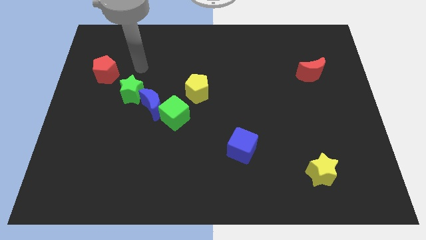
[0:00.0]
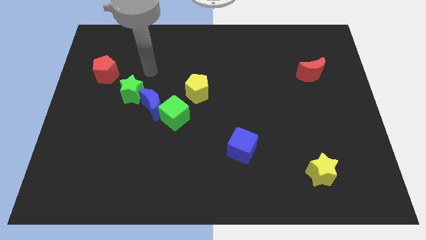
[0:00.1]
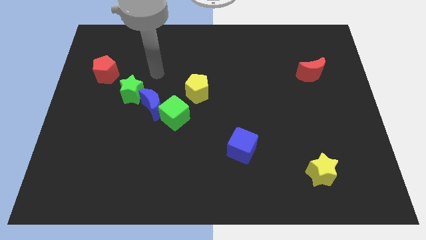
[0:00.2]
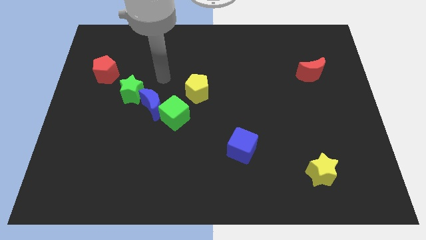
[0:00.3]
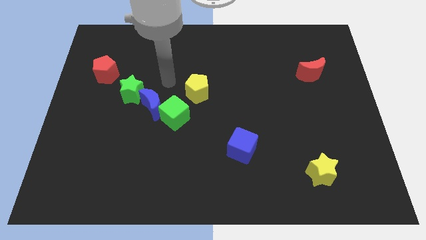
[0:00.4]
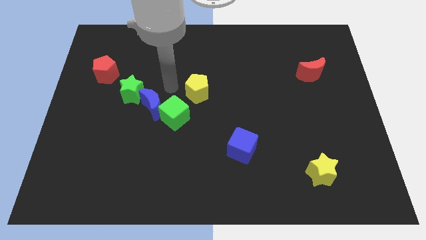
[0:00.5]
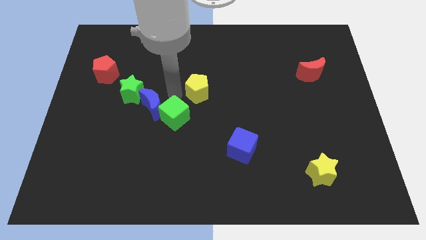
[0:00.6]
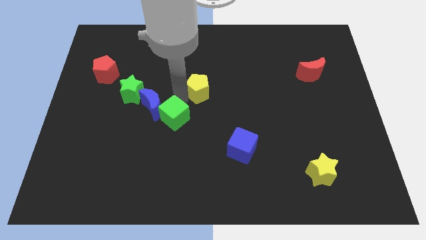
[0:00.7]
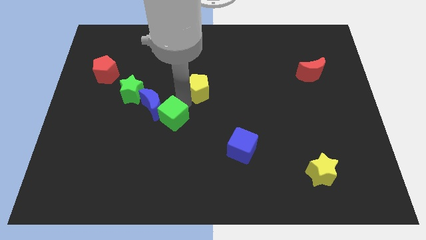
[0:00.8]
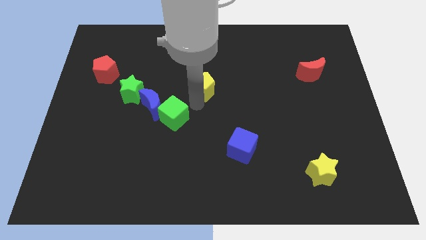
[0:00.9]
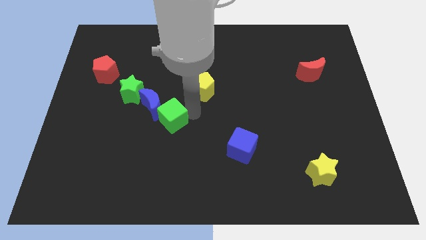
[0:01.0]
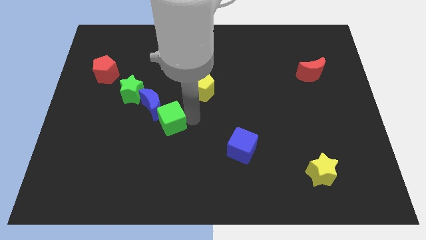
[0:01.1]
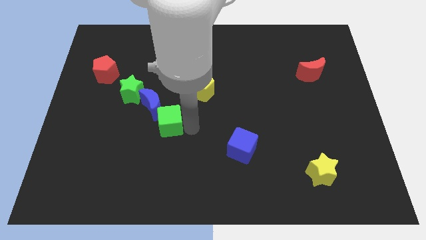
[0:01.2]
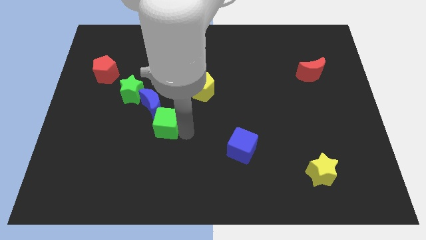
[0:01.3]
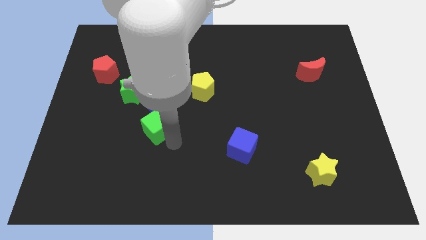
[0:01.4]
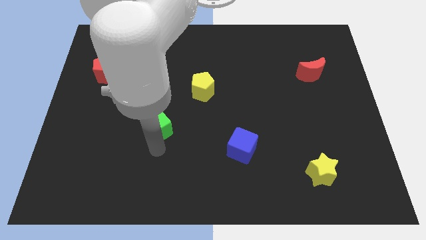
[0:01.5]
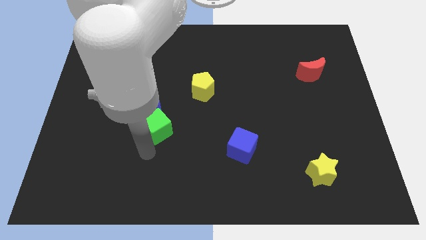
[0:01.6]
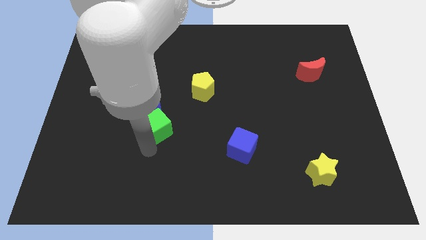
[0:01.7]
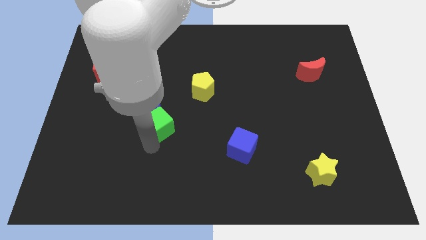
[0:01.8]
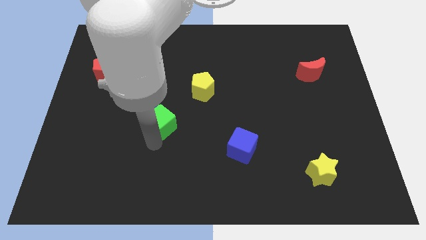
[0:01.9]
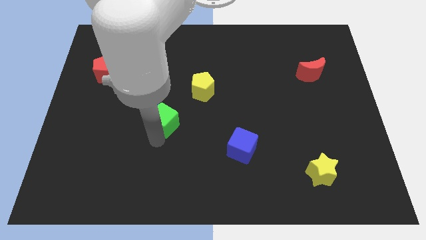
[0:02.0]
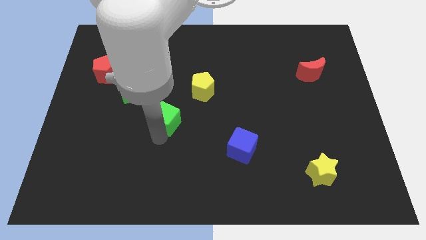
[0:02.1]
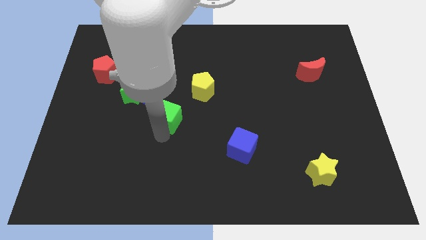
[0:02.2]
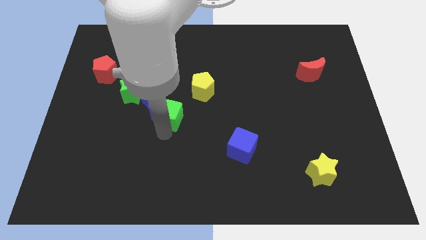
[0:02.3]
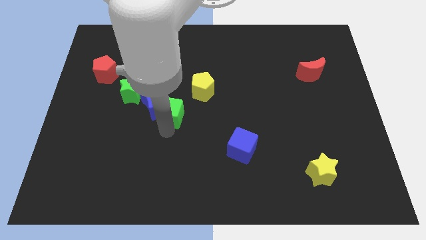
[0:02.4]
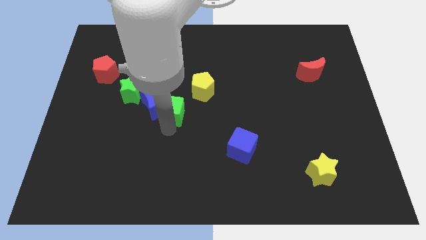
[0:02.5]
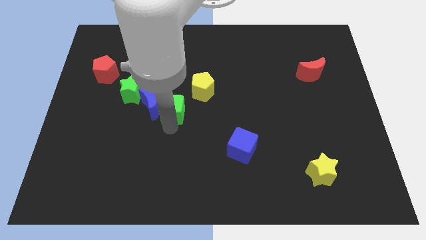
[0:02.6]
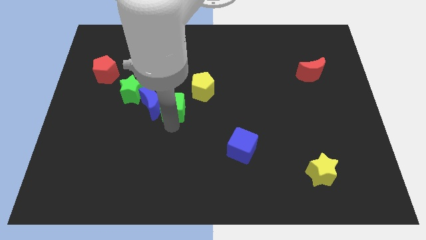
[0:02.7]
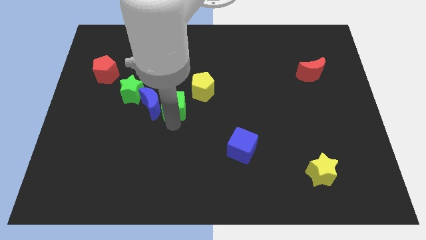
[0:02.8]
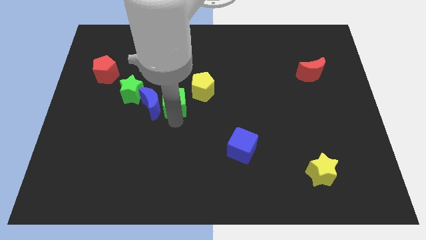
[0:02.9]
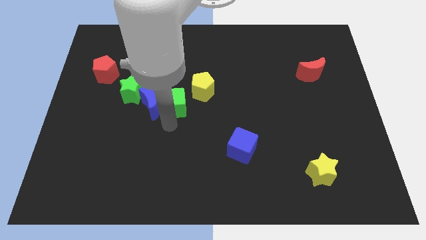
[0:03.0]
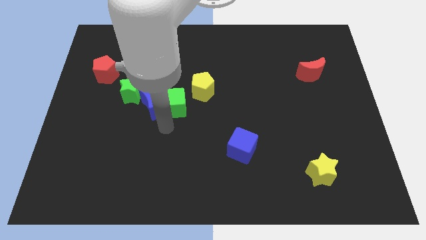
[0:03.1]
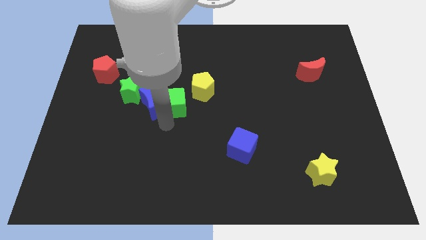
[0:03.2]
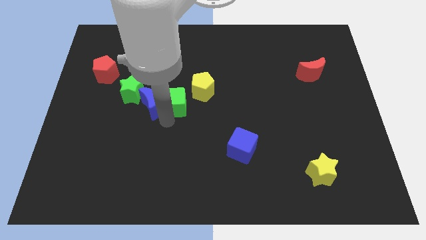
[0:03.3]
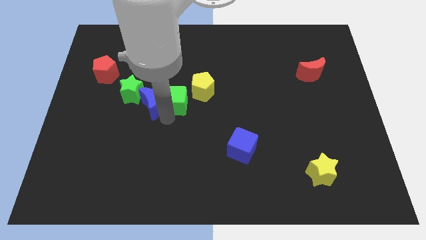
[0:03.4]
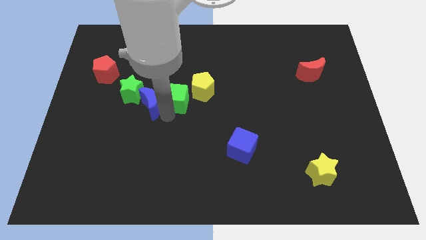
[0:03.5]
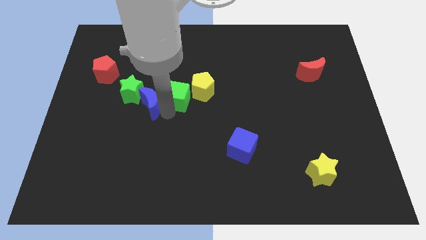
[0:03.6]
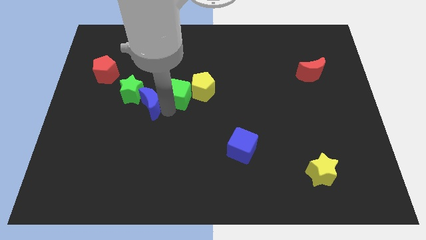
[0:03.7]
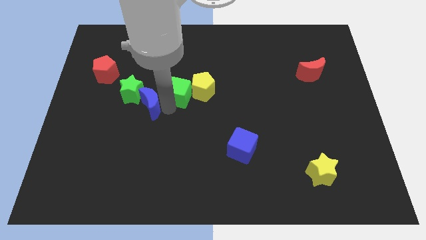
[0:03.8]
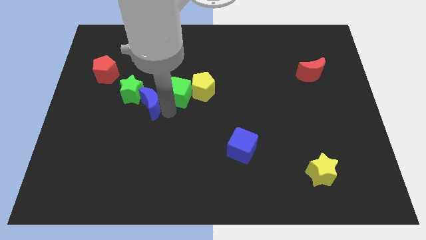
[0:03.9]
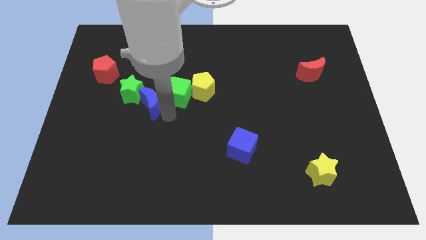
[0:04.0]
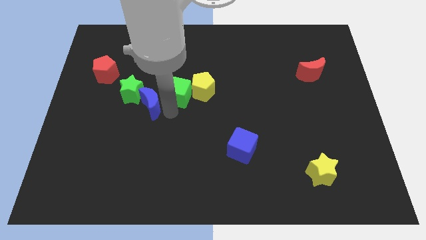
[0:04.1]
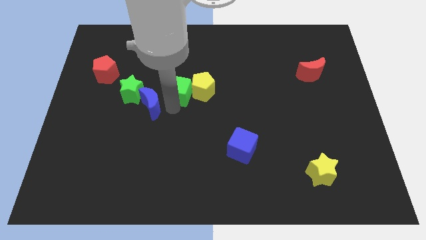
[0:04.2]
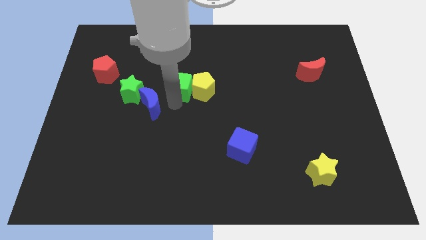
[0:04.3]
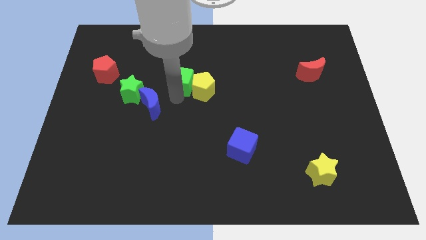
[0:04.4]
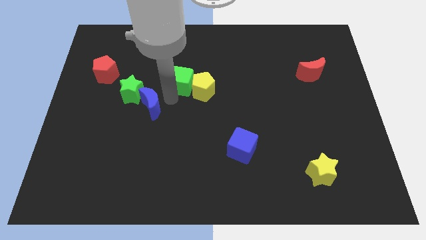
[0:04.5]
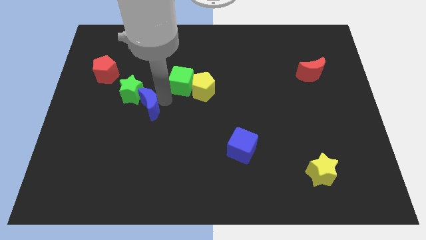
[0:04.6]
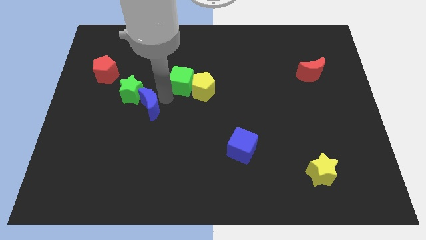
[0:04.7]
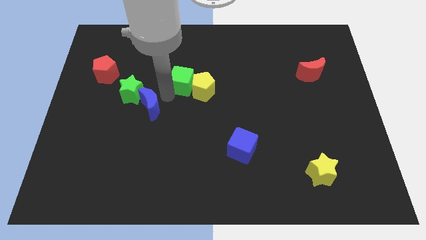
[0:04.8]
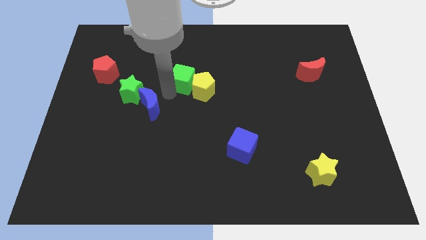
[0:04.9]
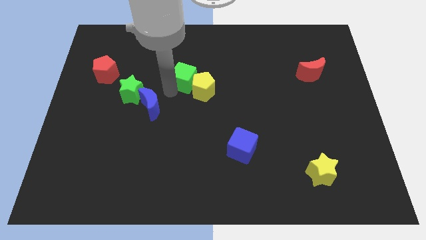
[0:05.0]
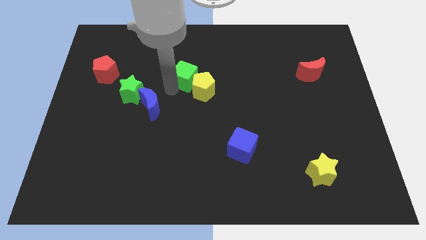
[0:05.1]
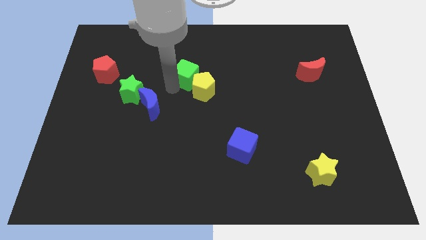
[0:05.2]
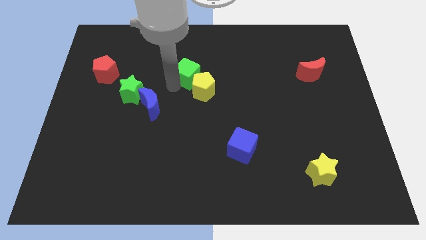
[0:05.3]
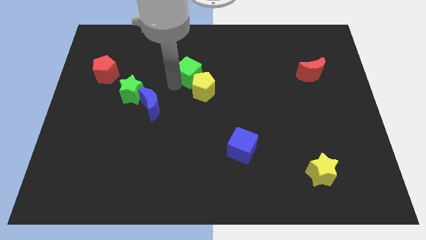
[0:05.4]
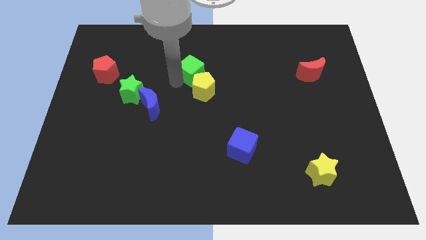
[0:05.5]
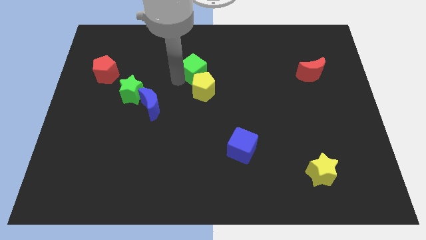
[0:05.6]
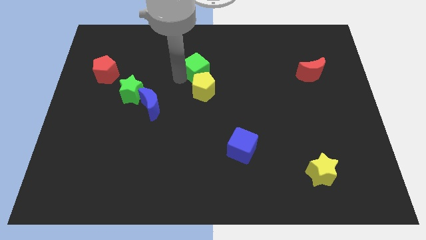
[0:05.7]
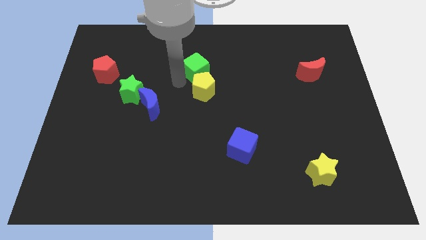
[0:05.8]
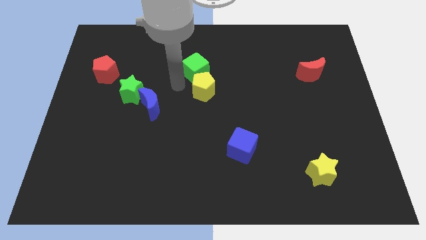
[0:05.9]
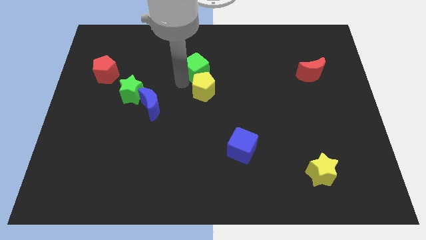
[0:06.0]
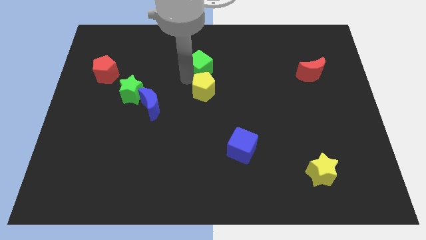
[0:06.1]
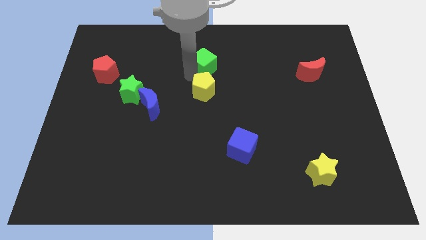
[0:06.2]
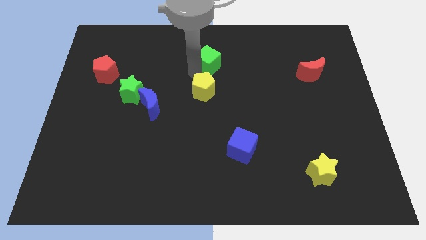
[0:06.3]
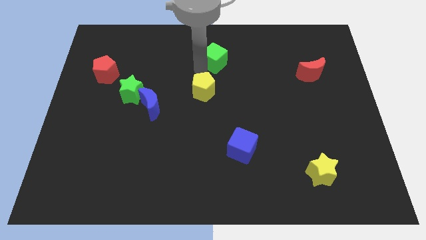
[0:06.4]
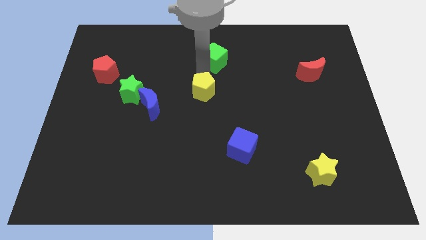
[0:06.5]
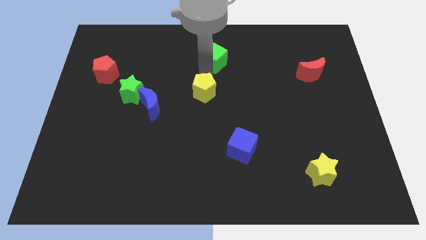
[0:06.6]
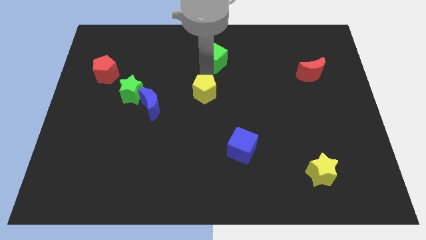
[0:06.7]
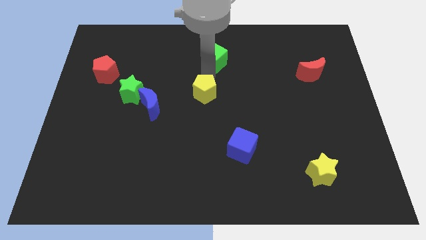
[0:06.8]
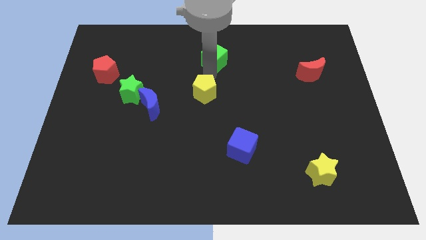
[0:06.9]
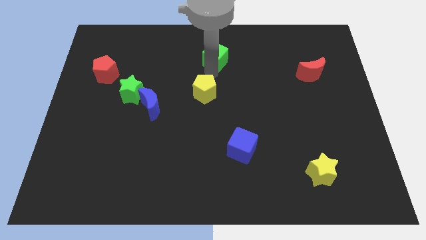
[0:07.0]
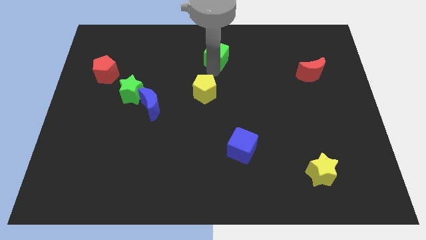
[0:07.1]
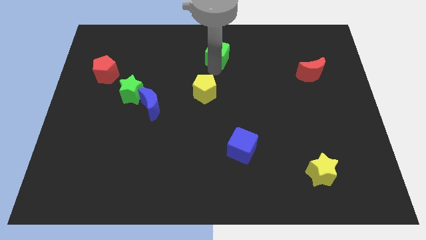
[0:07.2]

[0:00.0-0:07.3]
move the green cube to the towards your base
